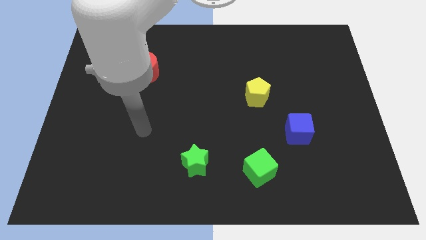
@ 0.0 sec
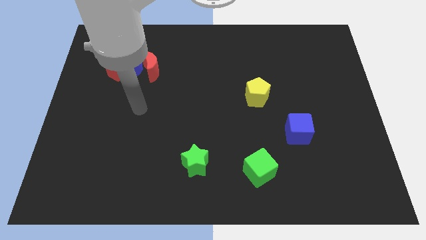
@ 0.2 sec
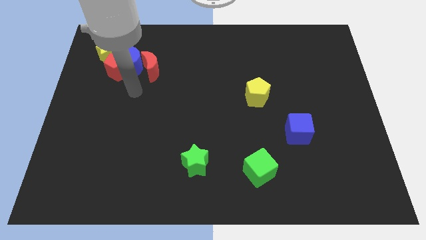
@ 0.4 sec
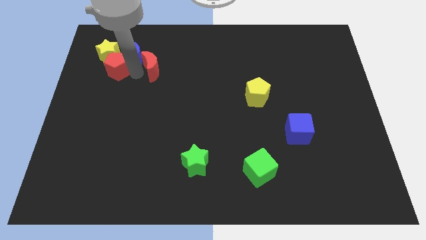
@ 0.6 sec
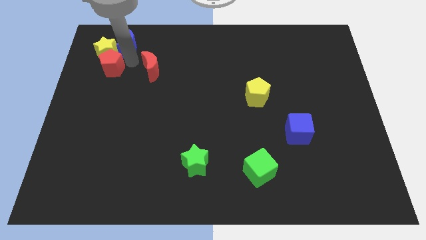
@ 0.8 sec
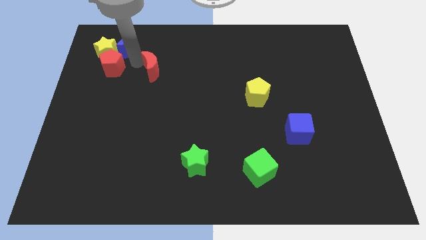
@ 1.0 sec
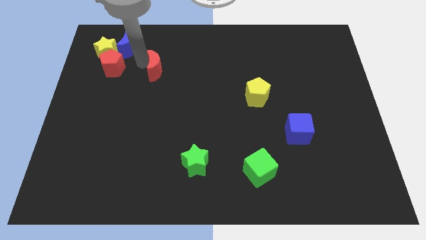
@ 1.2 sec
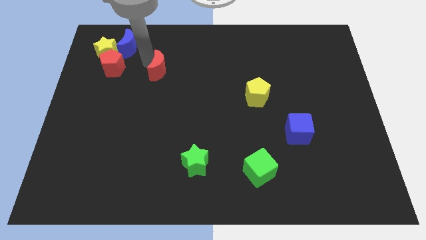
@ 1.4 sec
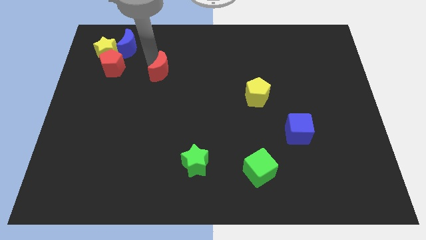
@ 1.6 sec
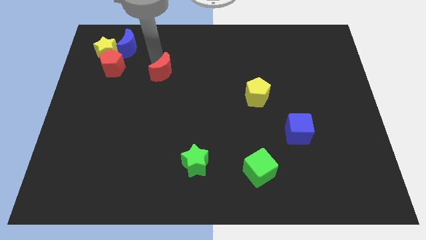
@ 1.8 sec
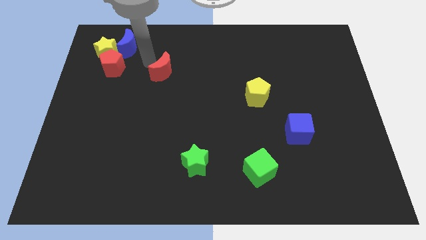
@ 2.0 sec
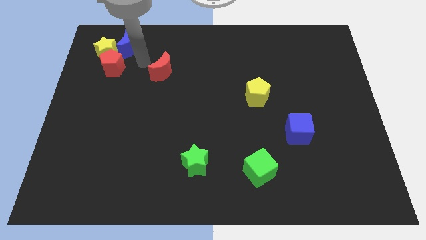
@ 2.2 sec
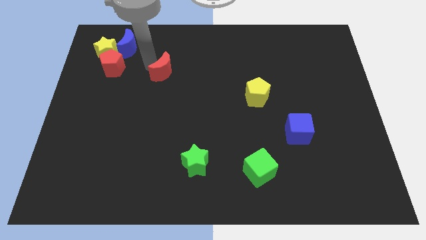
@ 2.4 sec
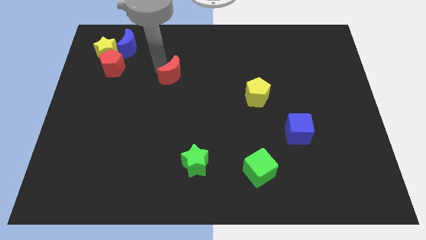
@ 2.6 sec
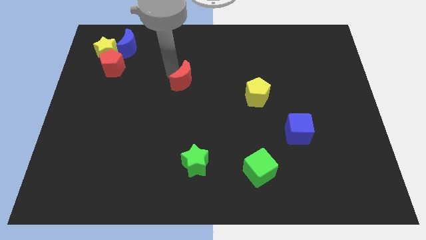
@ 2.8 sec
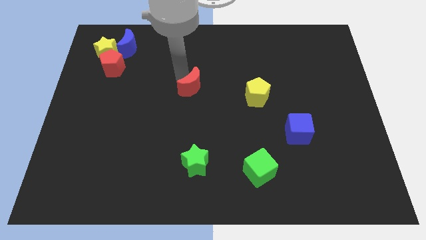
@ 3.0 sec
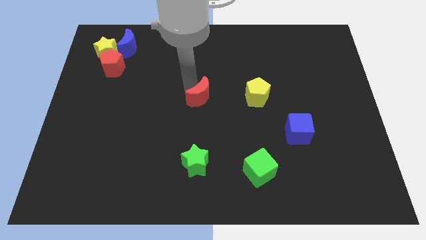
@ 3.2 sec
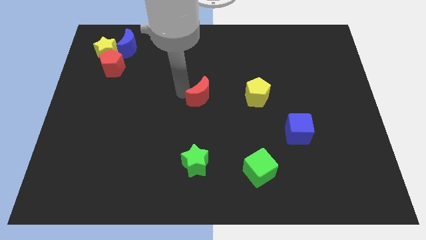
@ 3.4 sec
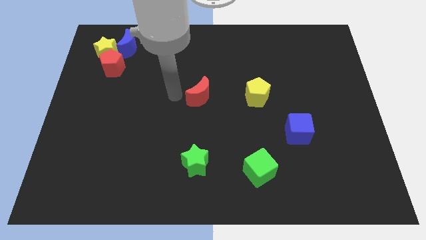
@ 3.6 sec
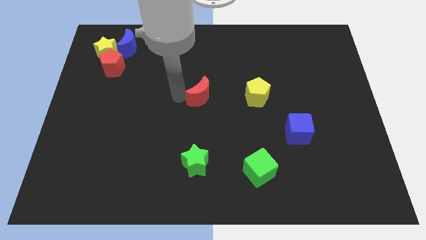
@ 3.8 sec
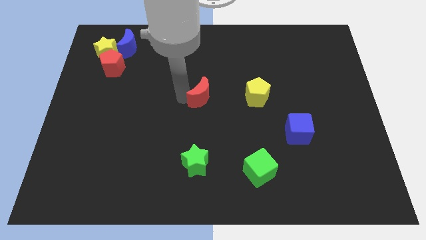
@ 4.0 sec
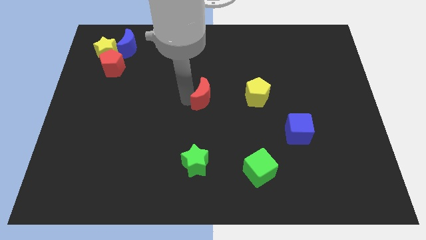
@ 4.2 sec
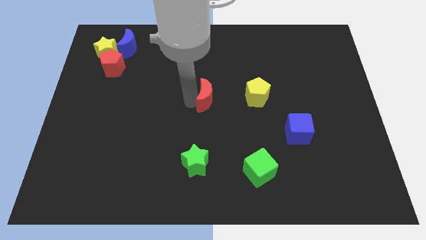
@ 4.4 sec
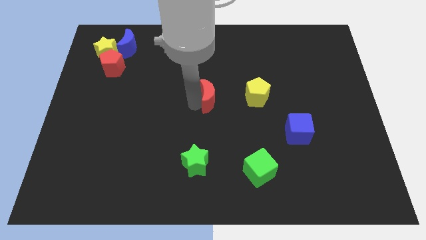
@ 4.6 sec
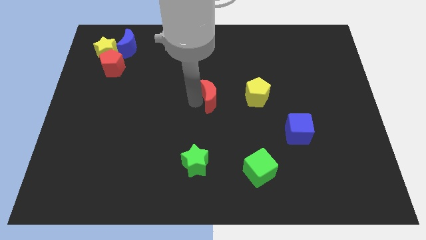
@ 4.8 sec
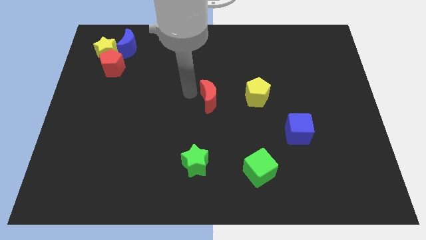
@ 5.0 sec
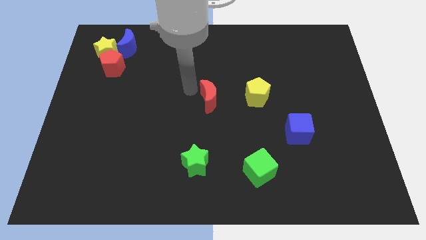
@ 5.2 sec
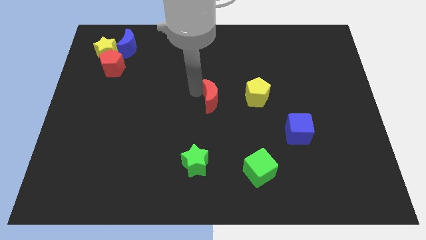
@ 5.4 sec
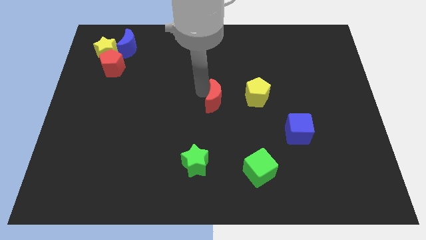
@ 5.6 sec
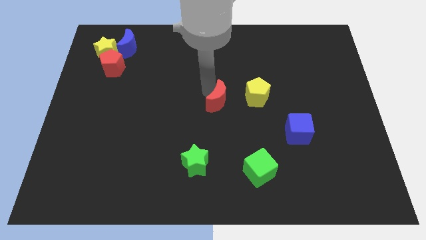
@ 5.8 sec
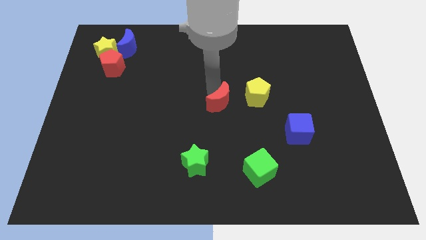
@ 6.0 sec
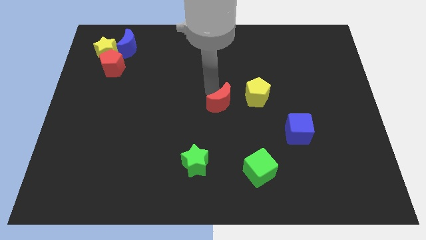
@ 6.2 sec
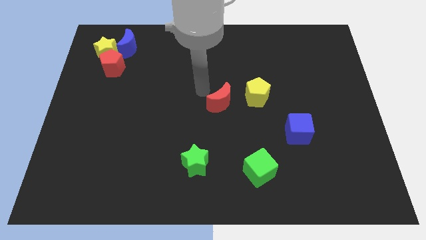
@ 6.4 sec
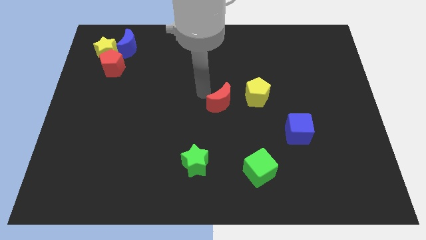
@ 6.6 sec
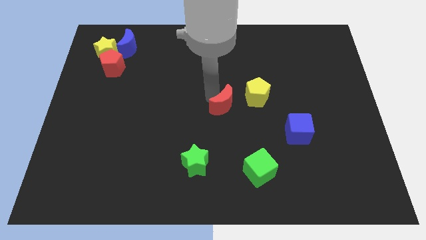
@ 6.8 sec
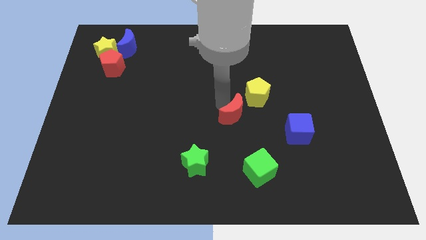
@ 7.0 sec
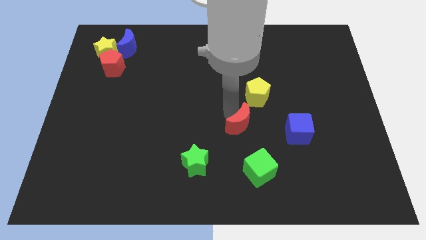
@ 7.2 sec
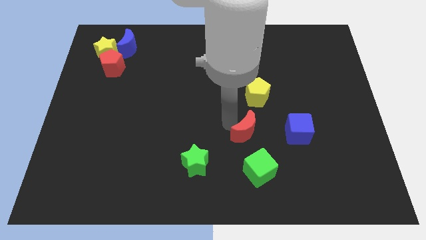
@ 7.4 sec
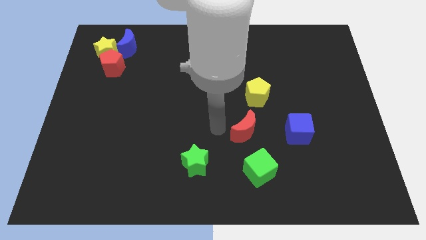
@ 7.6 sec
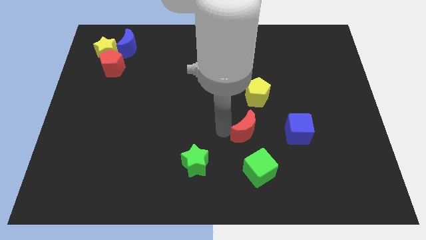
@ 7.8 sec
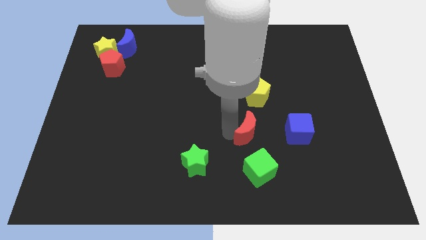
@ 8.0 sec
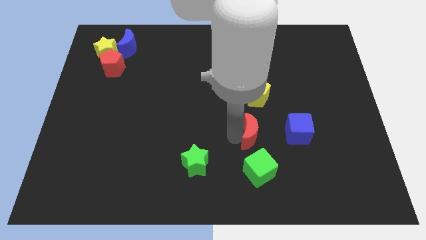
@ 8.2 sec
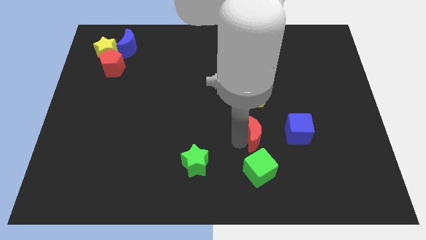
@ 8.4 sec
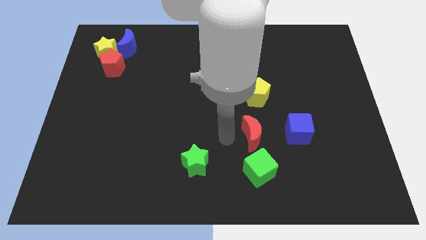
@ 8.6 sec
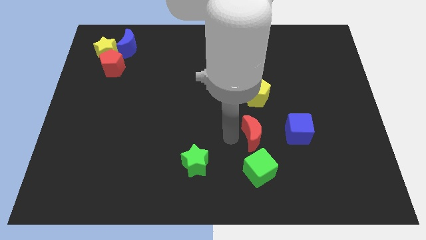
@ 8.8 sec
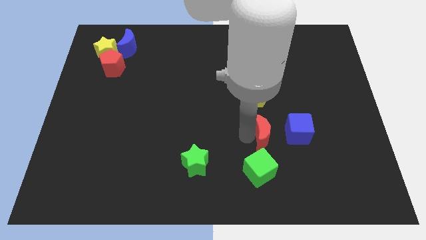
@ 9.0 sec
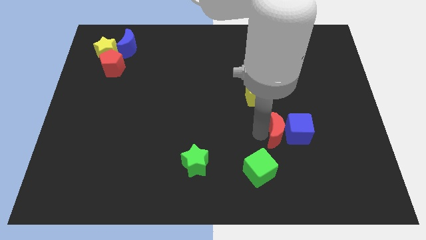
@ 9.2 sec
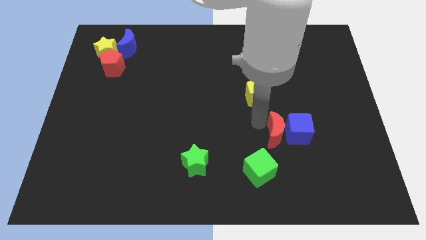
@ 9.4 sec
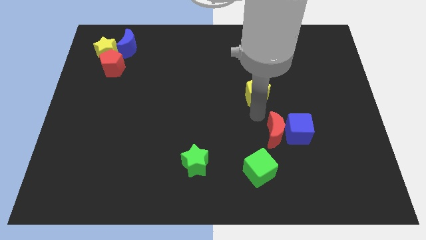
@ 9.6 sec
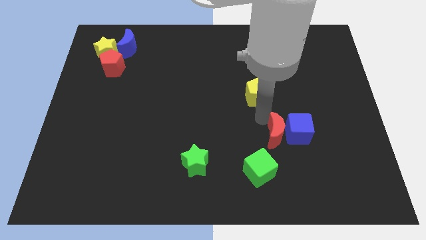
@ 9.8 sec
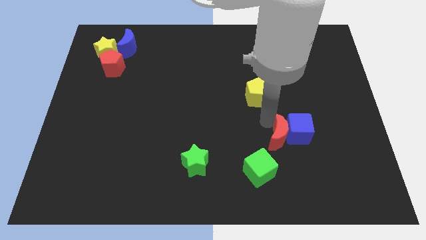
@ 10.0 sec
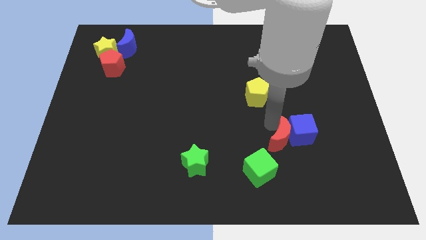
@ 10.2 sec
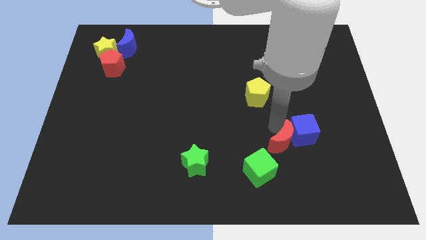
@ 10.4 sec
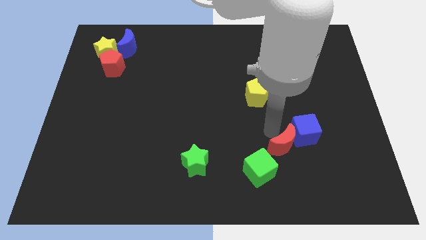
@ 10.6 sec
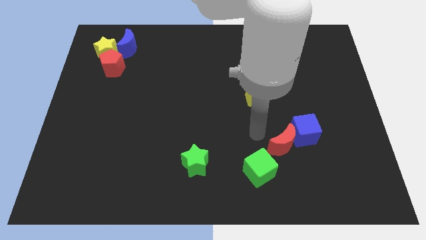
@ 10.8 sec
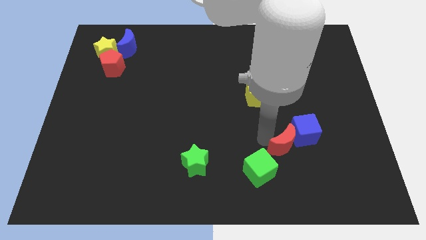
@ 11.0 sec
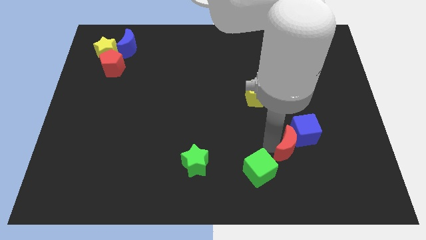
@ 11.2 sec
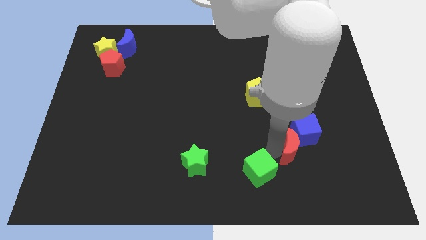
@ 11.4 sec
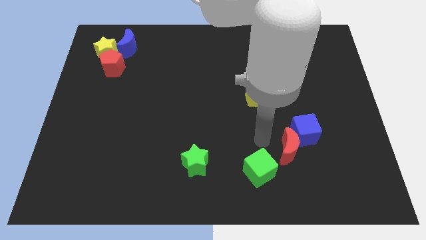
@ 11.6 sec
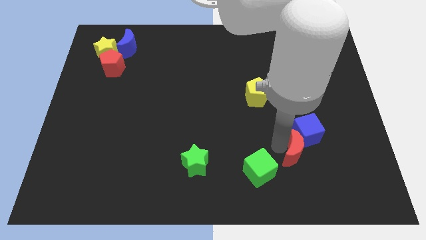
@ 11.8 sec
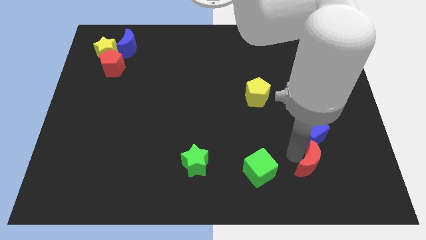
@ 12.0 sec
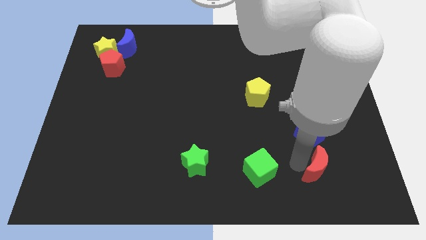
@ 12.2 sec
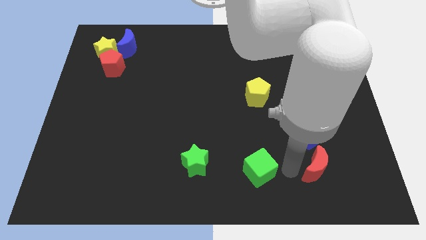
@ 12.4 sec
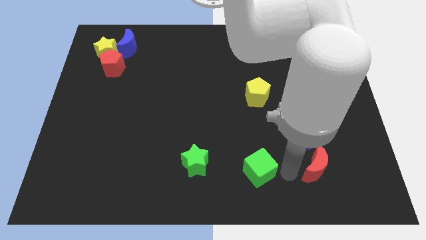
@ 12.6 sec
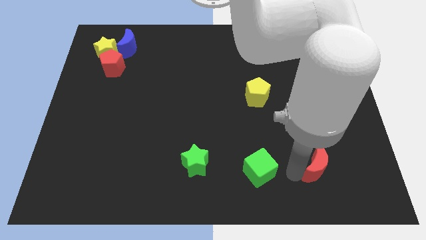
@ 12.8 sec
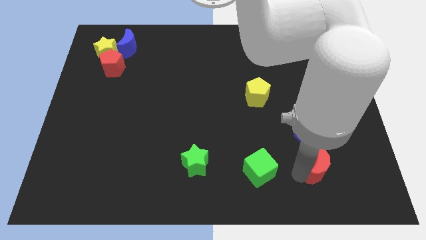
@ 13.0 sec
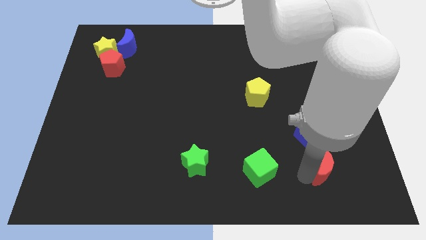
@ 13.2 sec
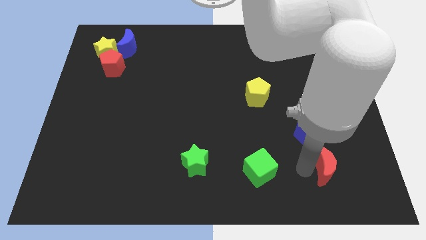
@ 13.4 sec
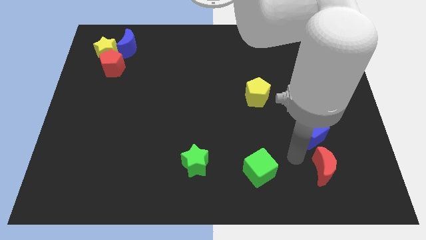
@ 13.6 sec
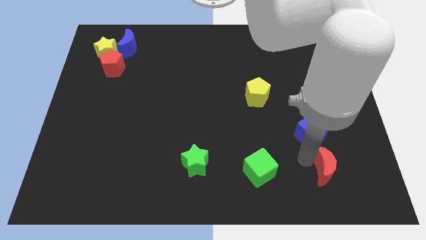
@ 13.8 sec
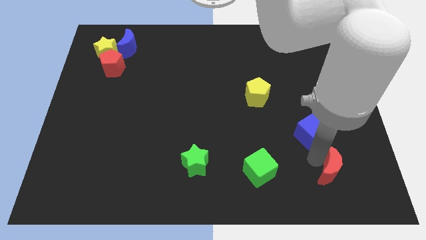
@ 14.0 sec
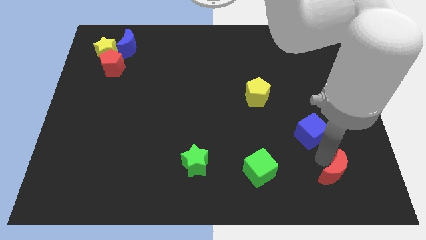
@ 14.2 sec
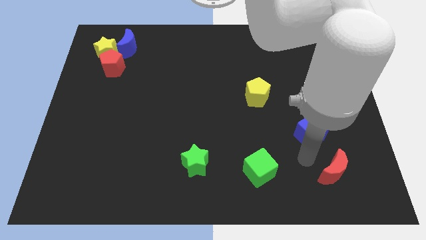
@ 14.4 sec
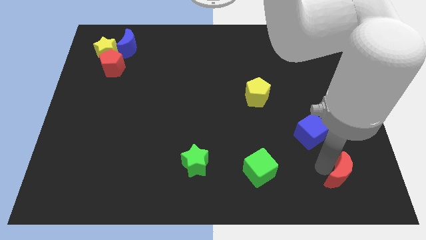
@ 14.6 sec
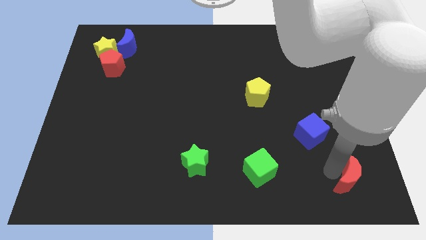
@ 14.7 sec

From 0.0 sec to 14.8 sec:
push the red moon to the lower right corner
